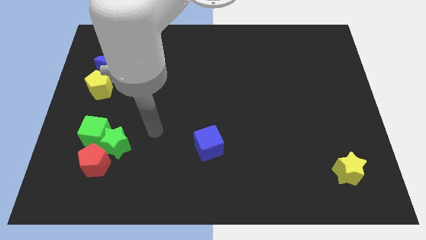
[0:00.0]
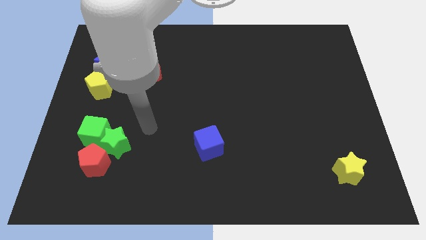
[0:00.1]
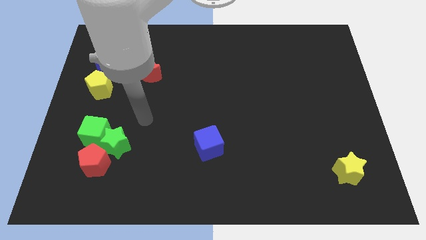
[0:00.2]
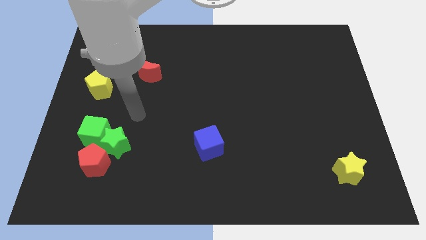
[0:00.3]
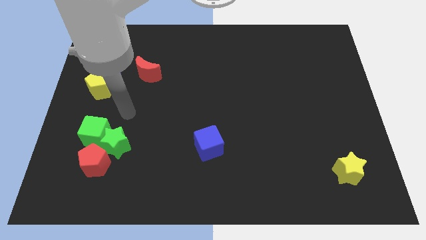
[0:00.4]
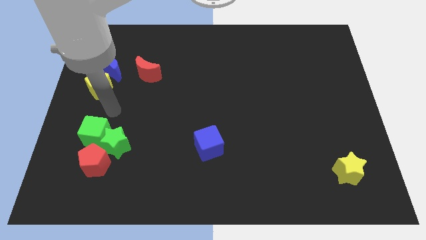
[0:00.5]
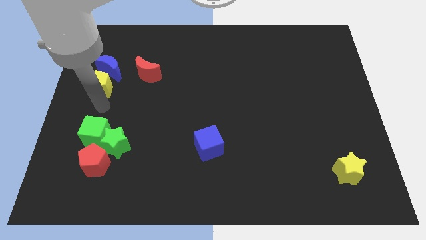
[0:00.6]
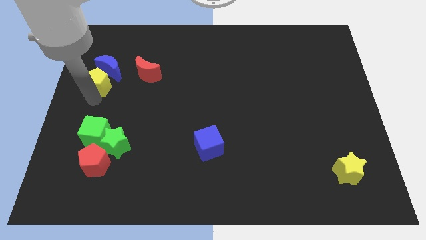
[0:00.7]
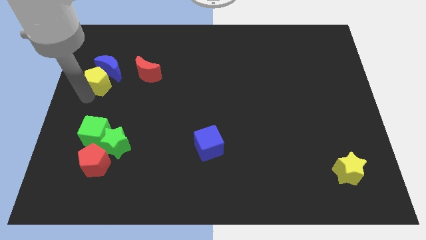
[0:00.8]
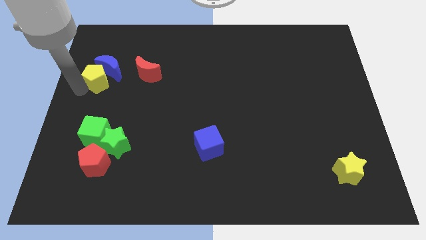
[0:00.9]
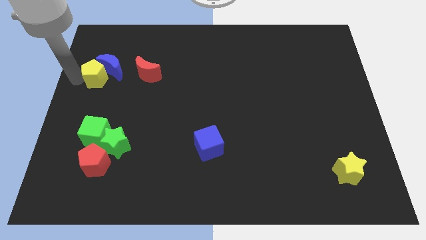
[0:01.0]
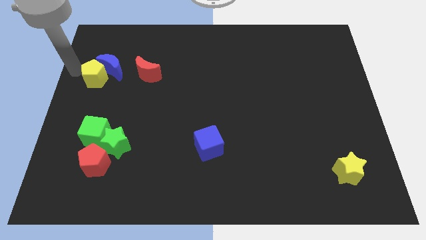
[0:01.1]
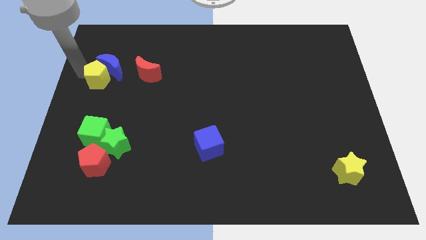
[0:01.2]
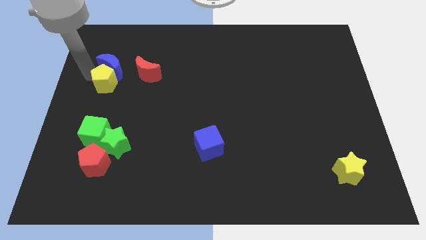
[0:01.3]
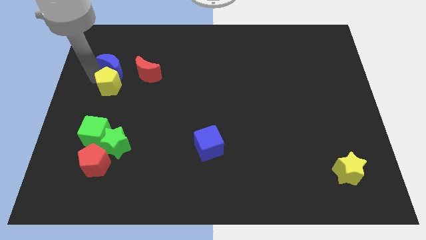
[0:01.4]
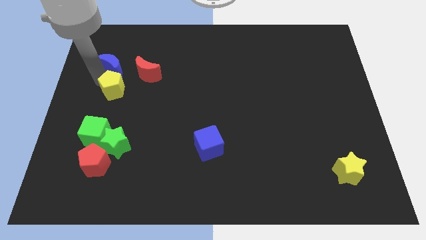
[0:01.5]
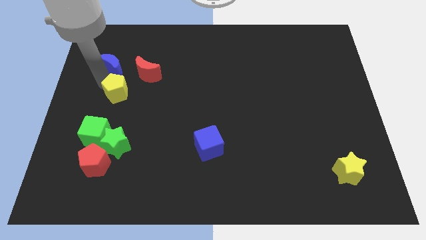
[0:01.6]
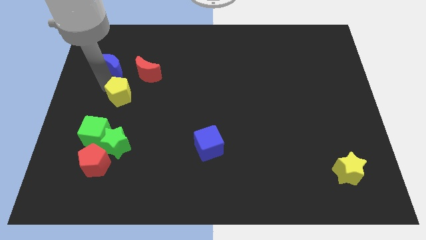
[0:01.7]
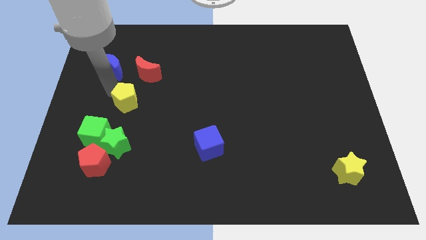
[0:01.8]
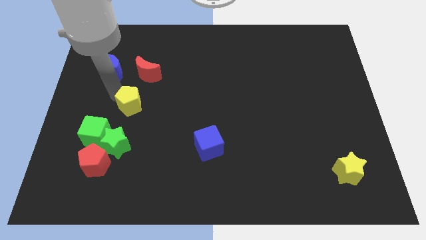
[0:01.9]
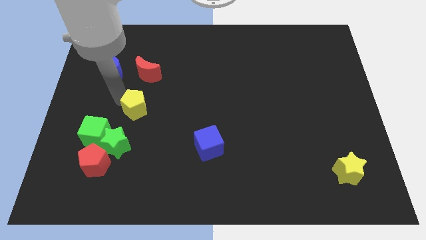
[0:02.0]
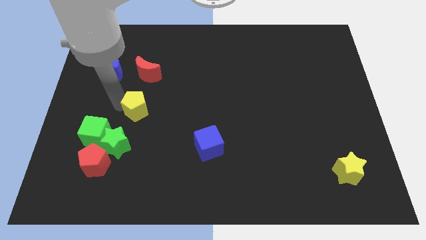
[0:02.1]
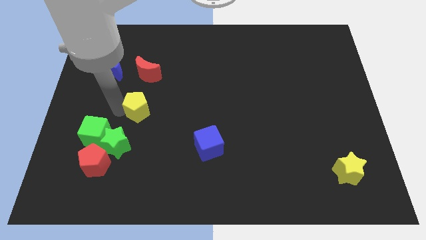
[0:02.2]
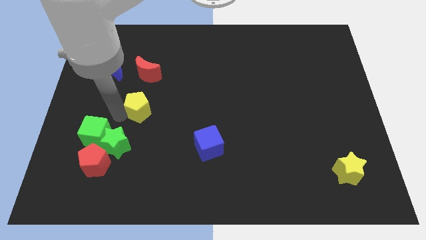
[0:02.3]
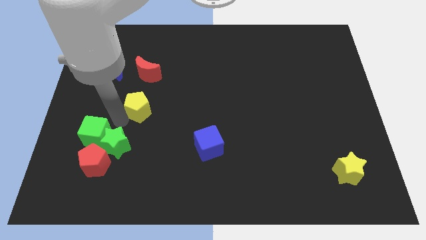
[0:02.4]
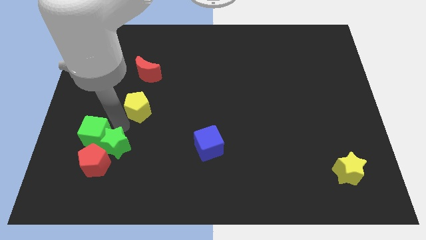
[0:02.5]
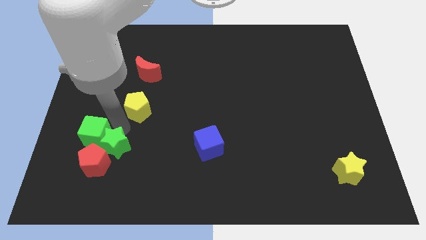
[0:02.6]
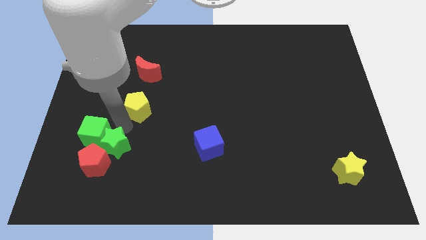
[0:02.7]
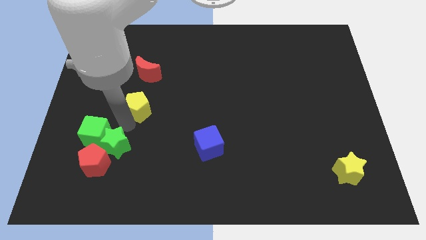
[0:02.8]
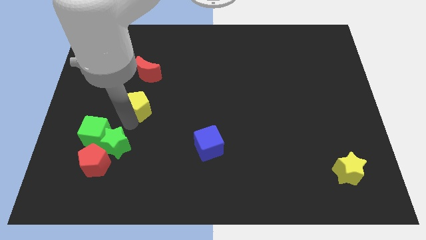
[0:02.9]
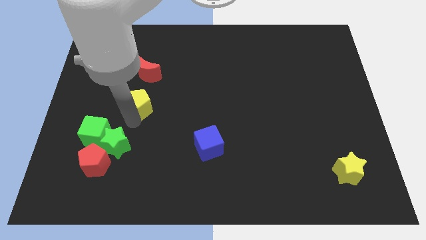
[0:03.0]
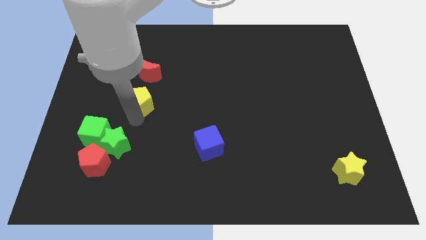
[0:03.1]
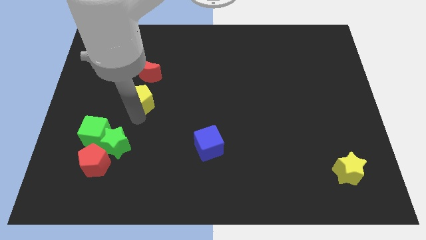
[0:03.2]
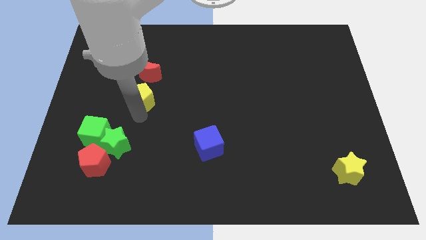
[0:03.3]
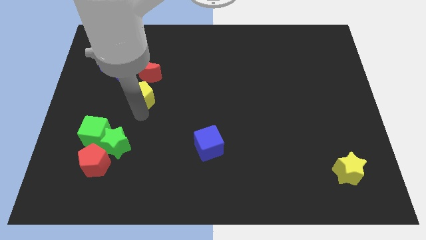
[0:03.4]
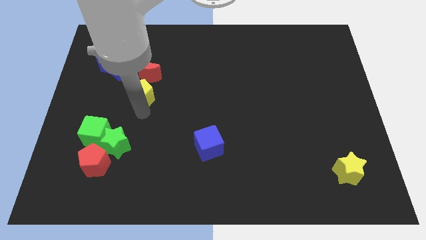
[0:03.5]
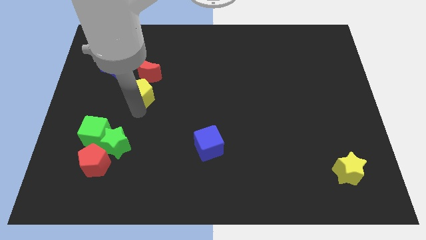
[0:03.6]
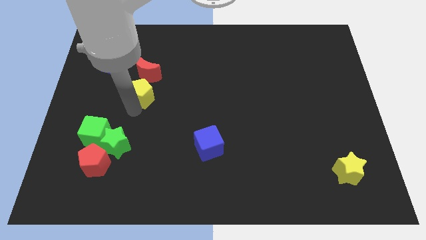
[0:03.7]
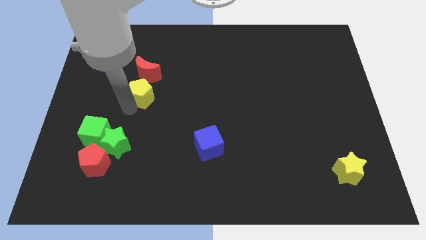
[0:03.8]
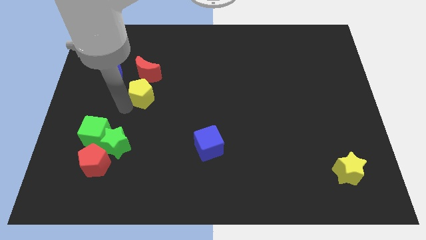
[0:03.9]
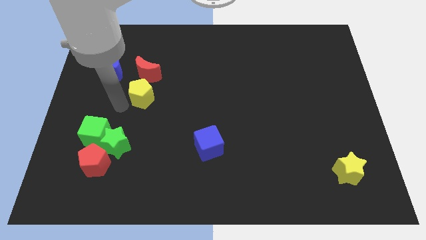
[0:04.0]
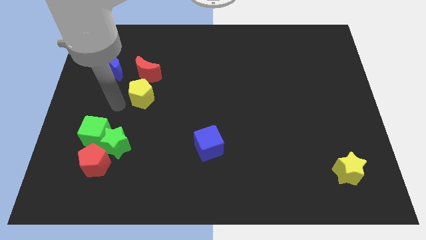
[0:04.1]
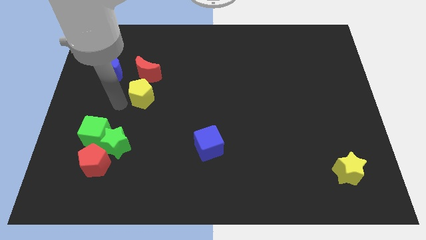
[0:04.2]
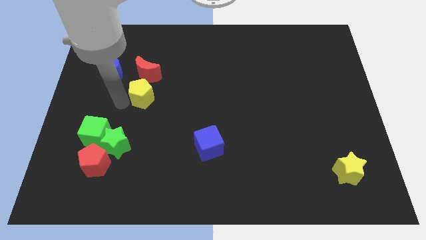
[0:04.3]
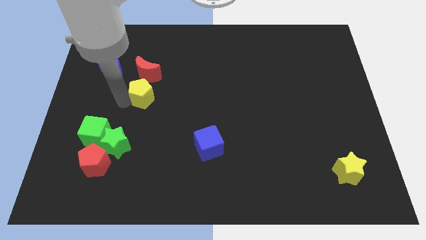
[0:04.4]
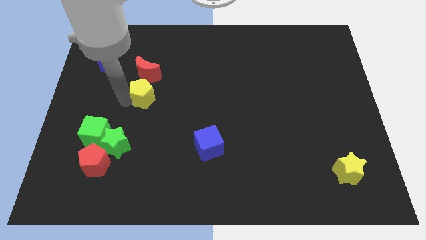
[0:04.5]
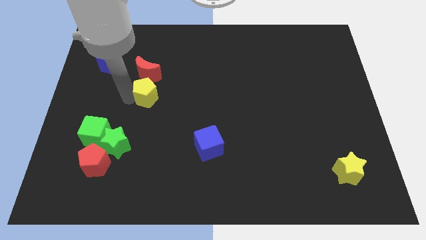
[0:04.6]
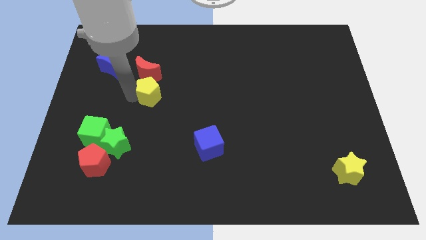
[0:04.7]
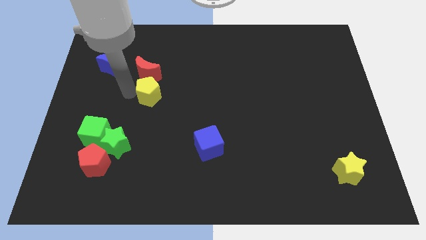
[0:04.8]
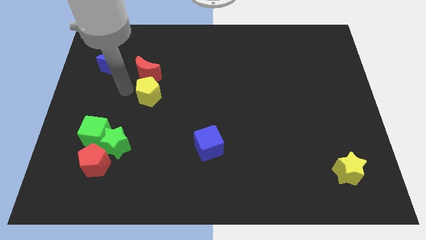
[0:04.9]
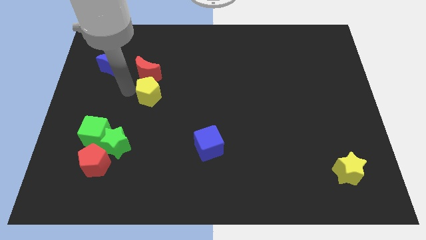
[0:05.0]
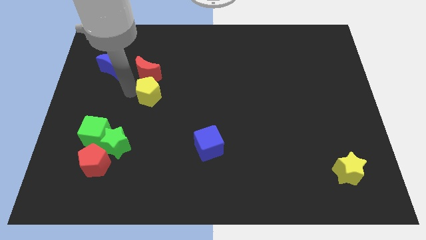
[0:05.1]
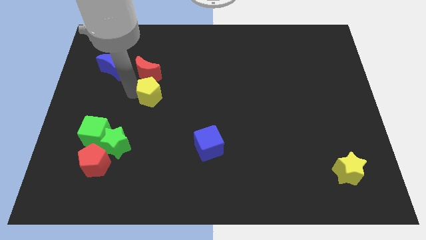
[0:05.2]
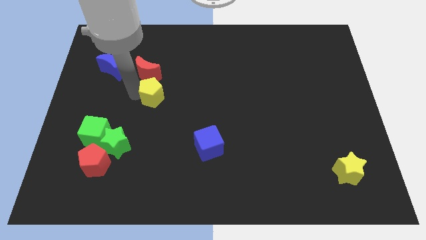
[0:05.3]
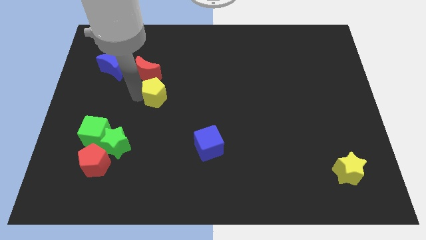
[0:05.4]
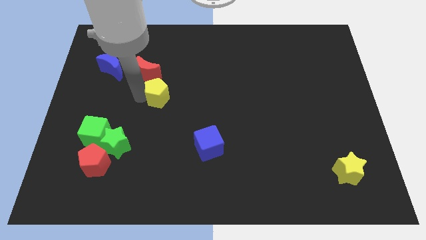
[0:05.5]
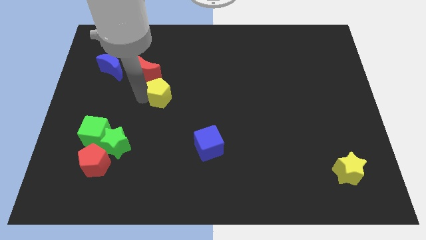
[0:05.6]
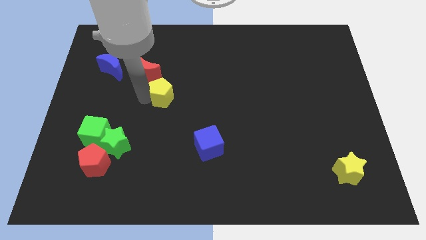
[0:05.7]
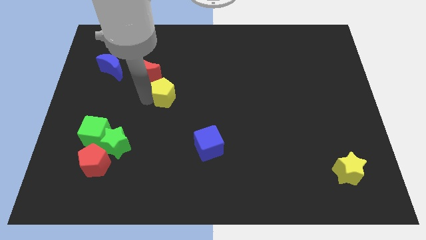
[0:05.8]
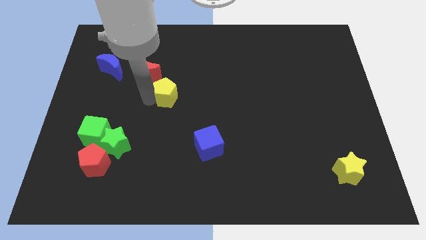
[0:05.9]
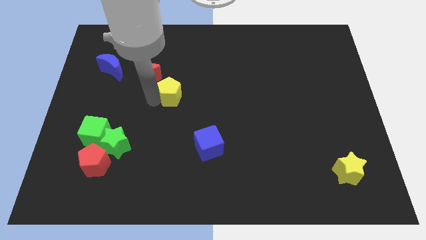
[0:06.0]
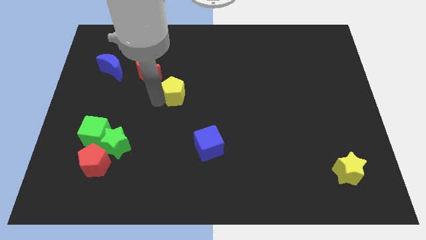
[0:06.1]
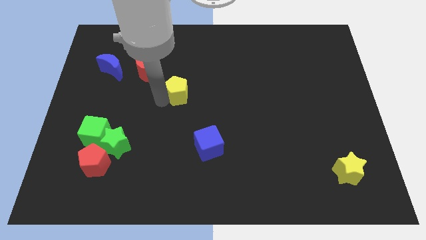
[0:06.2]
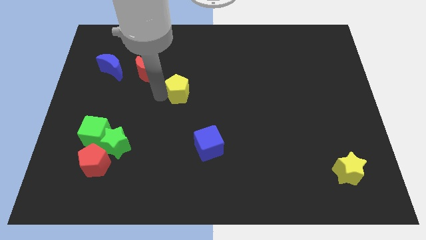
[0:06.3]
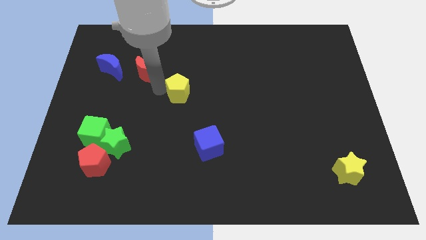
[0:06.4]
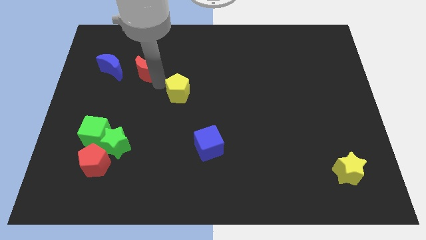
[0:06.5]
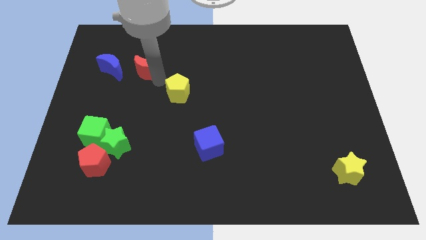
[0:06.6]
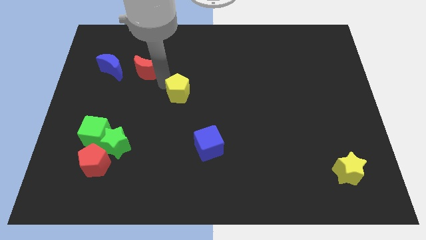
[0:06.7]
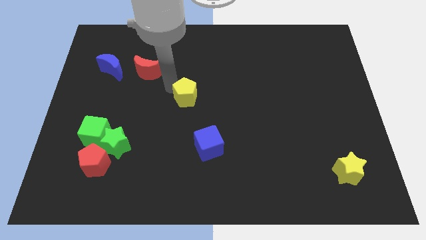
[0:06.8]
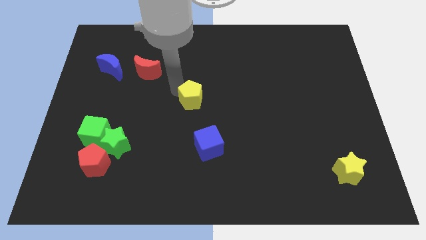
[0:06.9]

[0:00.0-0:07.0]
put the yellow pentagon to the top side of the blue cube
